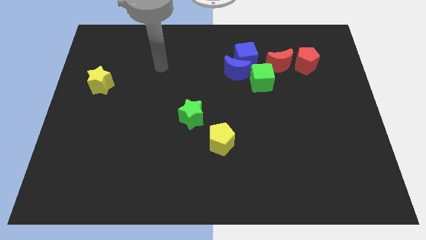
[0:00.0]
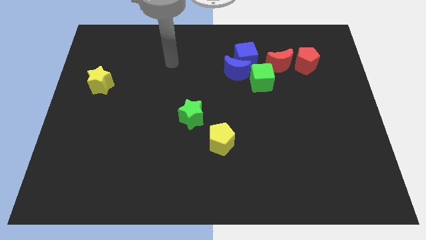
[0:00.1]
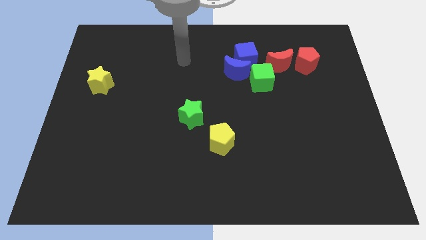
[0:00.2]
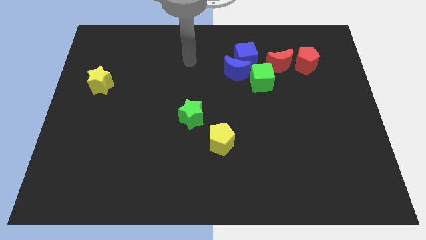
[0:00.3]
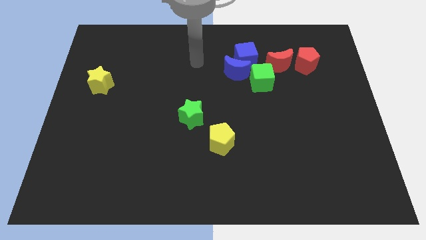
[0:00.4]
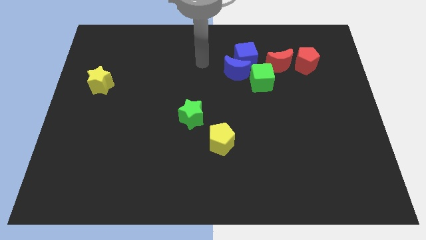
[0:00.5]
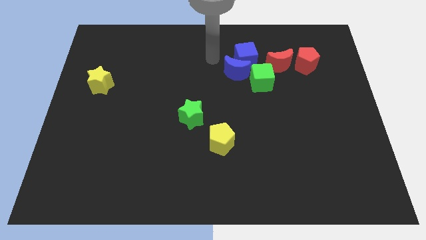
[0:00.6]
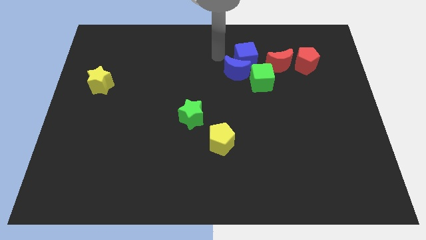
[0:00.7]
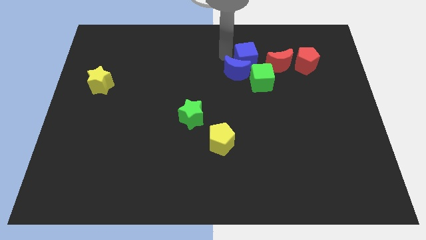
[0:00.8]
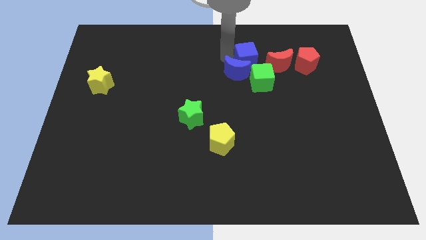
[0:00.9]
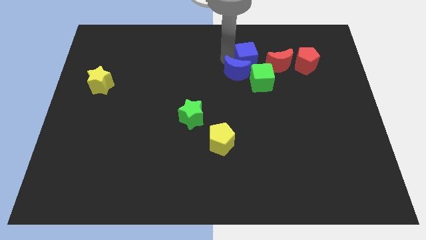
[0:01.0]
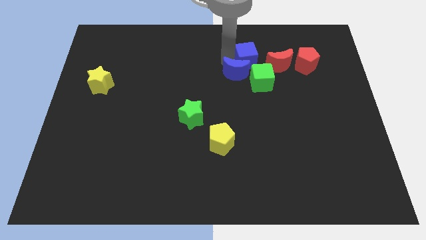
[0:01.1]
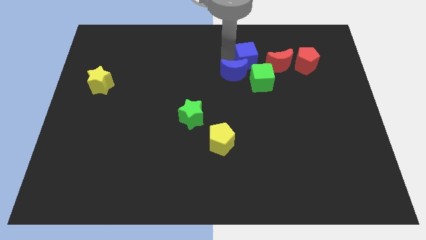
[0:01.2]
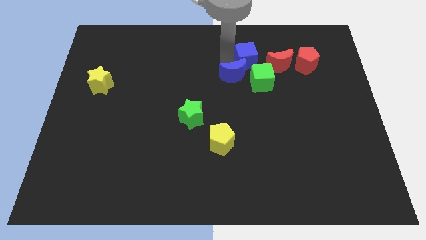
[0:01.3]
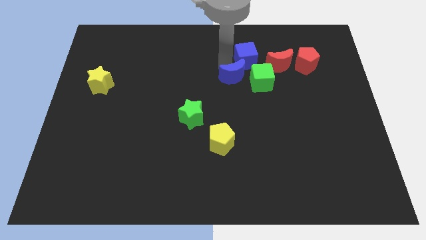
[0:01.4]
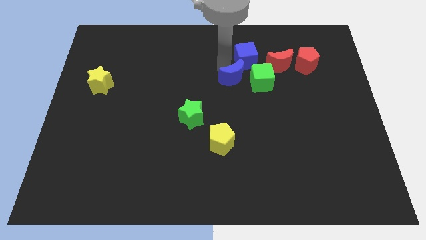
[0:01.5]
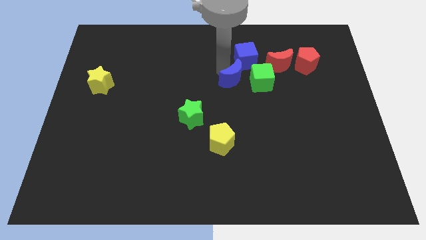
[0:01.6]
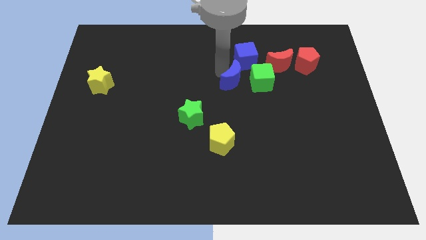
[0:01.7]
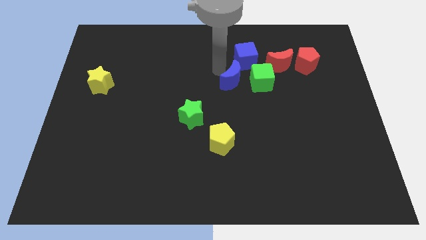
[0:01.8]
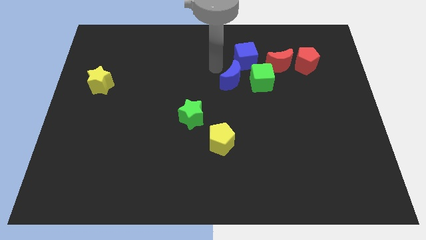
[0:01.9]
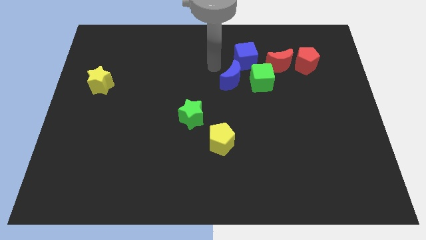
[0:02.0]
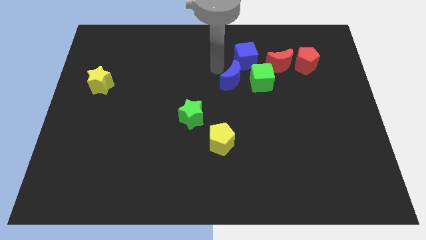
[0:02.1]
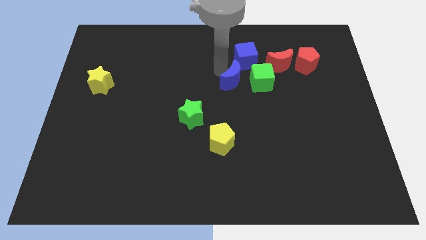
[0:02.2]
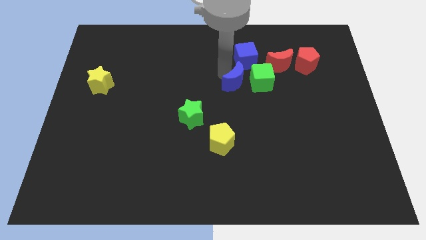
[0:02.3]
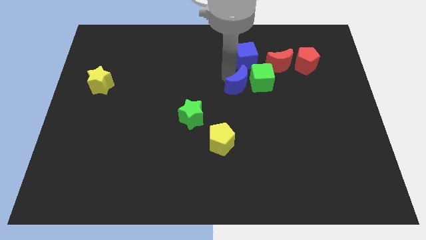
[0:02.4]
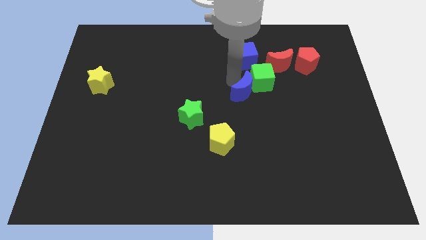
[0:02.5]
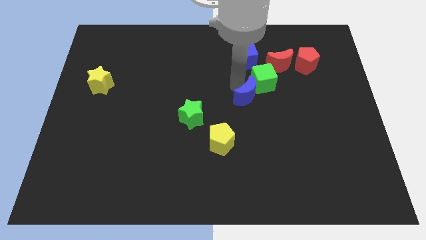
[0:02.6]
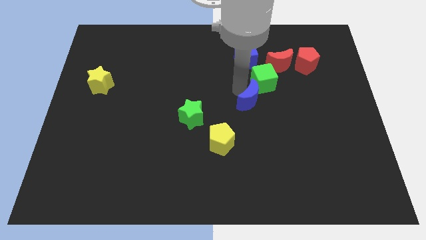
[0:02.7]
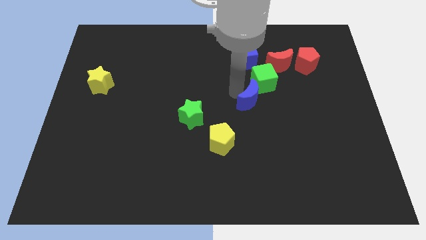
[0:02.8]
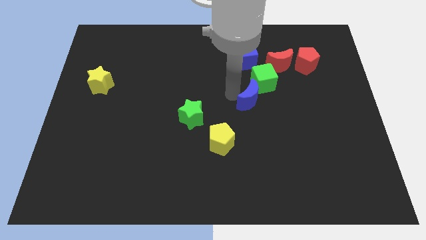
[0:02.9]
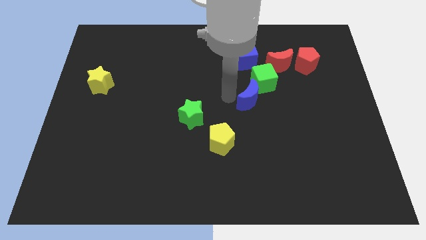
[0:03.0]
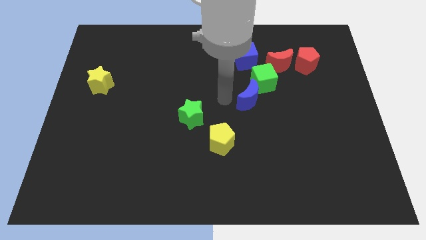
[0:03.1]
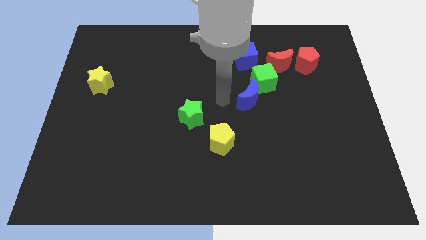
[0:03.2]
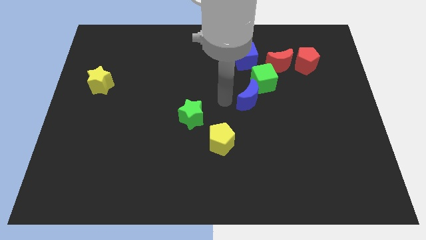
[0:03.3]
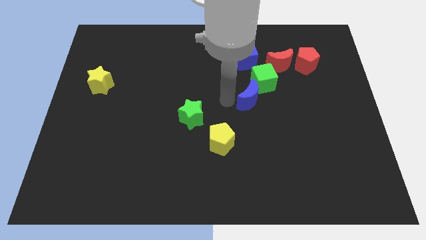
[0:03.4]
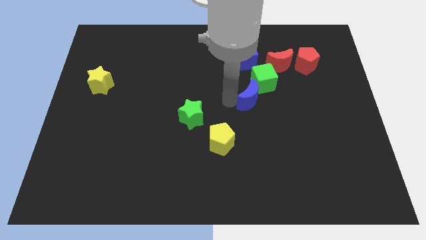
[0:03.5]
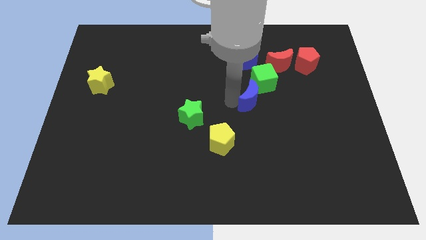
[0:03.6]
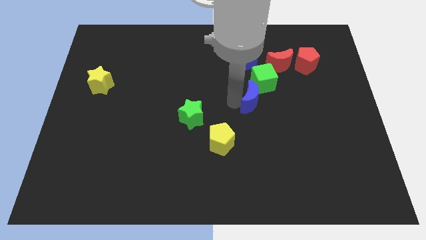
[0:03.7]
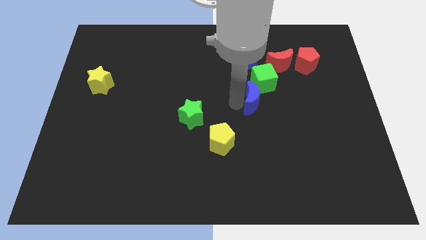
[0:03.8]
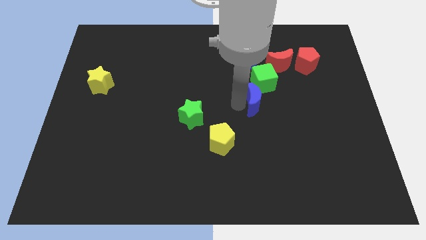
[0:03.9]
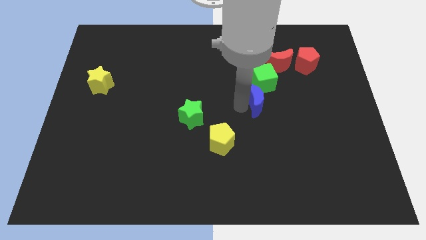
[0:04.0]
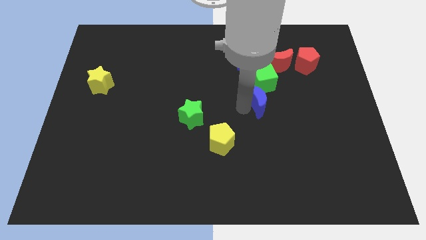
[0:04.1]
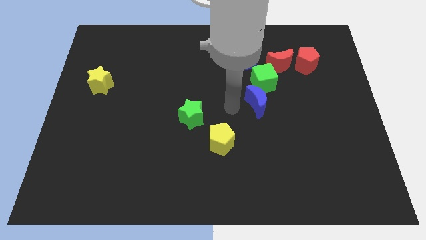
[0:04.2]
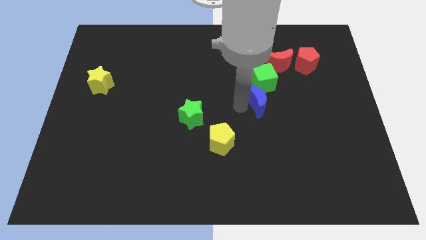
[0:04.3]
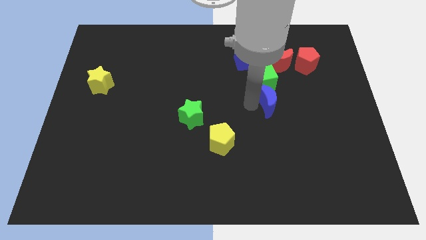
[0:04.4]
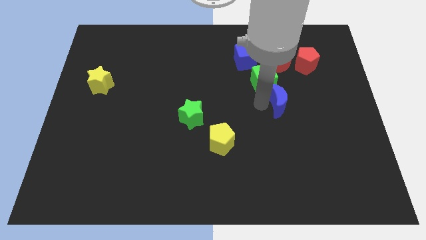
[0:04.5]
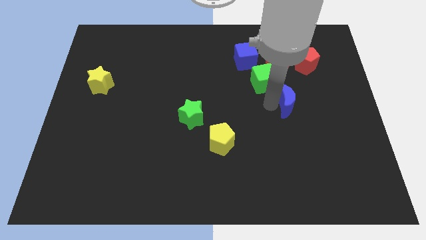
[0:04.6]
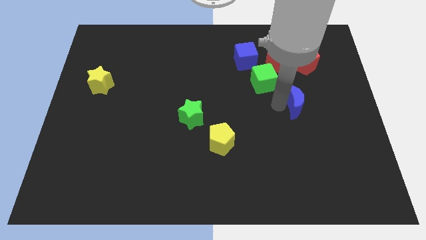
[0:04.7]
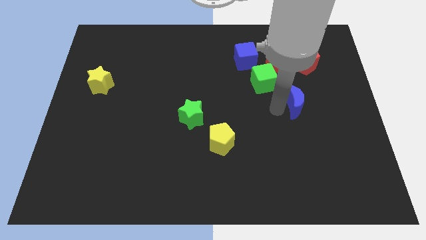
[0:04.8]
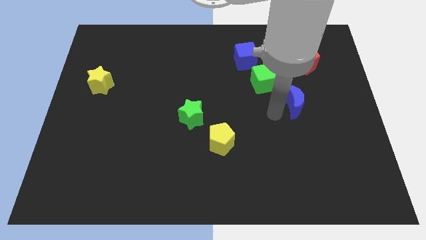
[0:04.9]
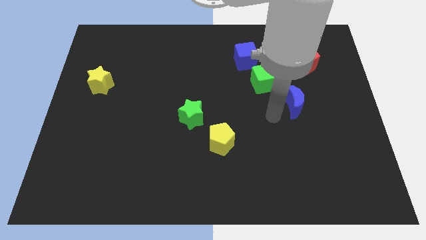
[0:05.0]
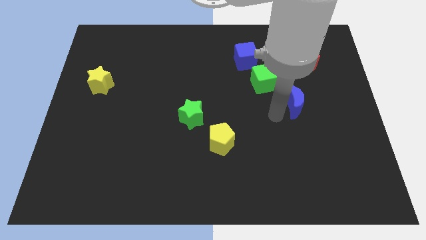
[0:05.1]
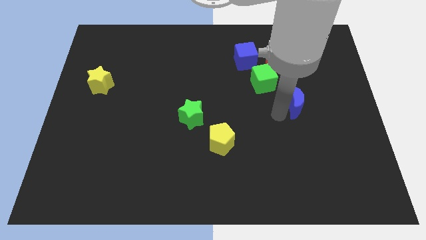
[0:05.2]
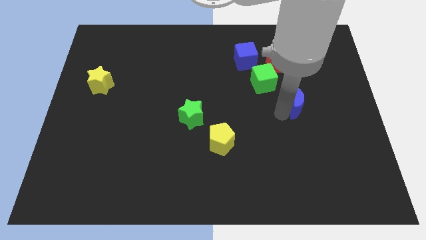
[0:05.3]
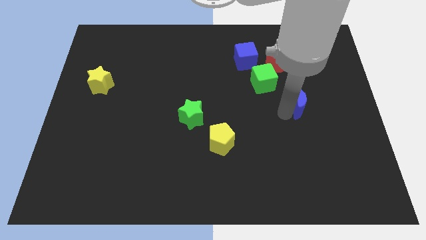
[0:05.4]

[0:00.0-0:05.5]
slide the blue moon to the bottom of the red pentagon

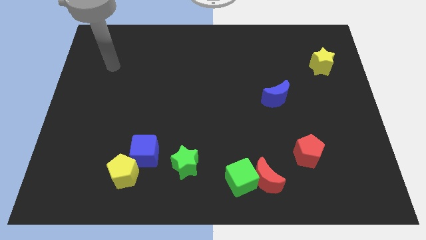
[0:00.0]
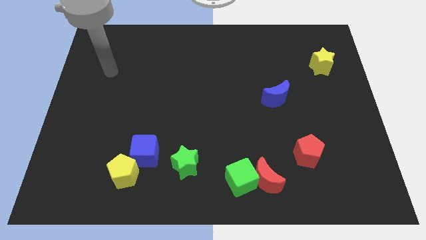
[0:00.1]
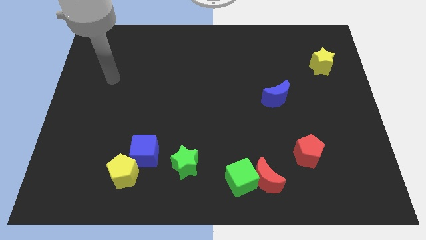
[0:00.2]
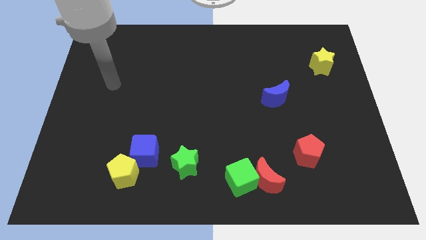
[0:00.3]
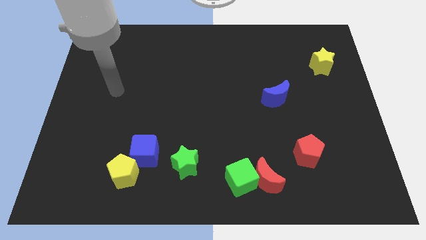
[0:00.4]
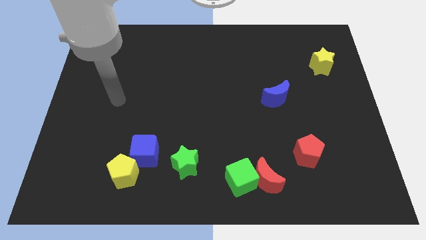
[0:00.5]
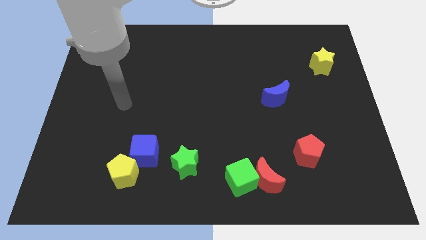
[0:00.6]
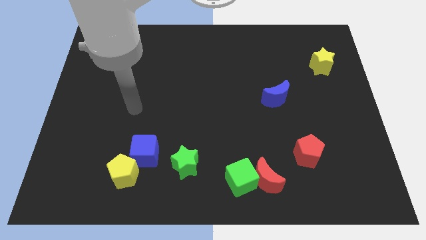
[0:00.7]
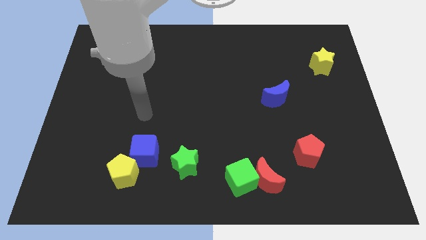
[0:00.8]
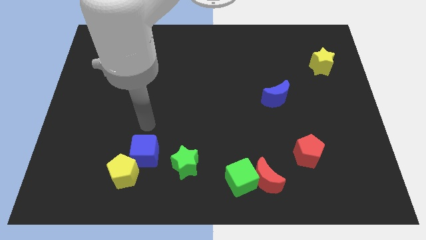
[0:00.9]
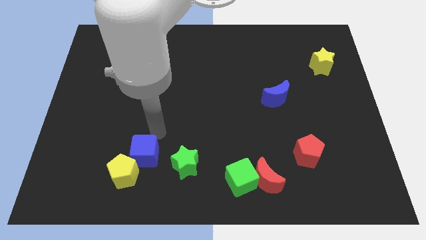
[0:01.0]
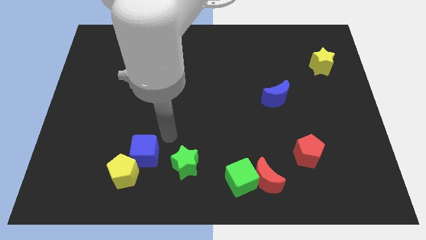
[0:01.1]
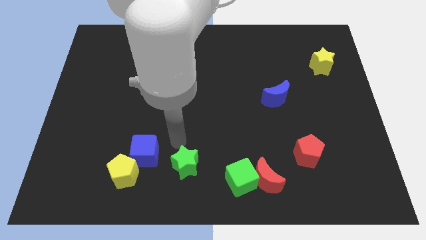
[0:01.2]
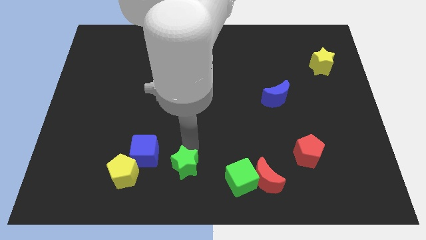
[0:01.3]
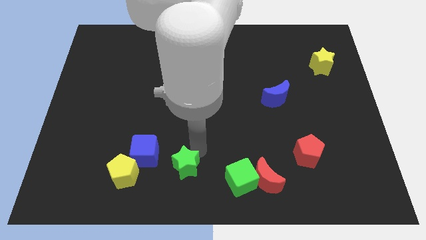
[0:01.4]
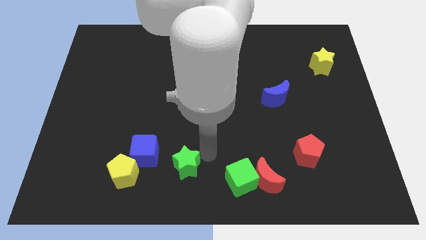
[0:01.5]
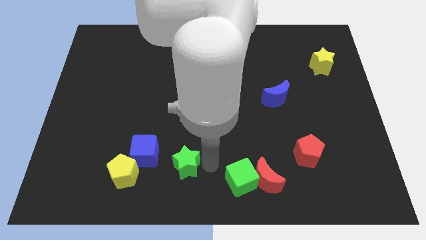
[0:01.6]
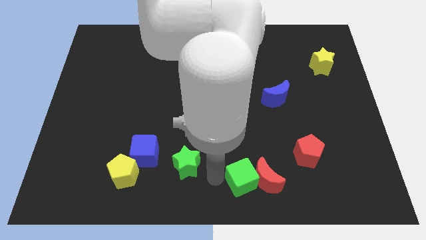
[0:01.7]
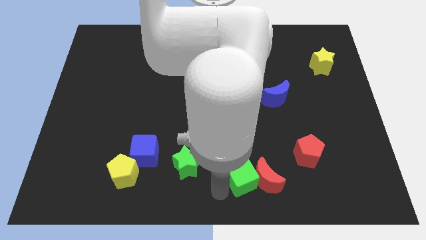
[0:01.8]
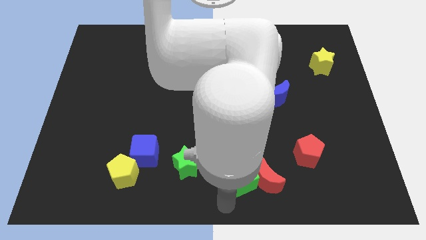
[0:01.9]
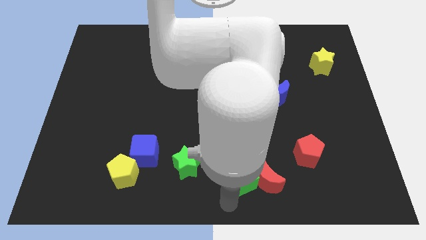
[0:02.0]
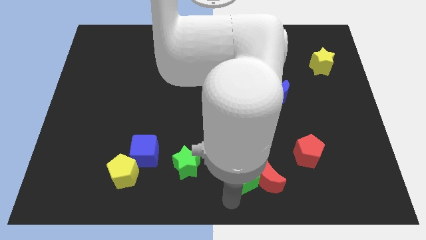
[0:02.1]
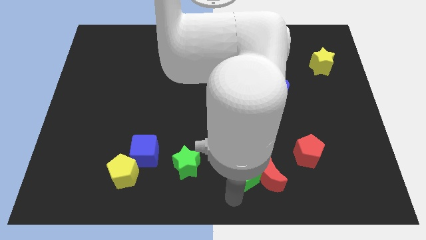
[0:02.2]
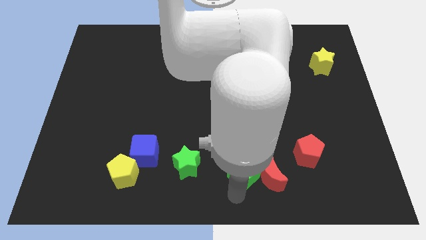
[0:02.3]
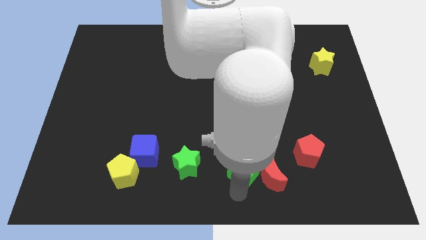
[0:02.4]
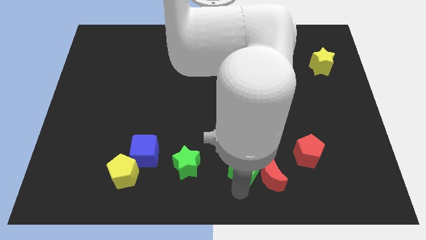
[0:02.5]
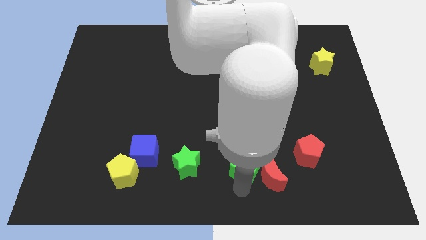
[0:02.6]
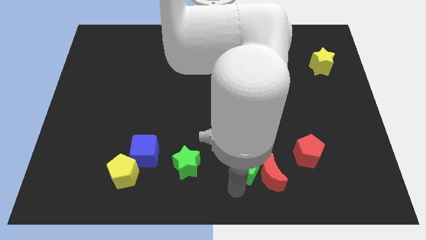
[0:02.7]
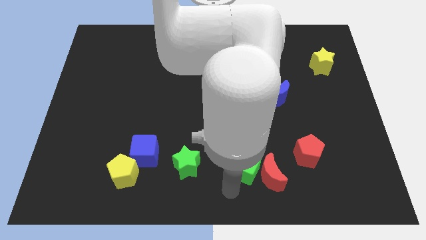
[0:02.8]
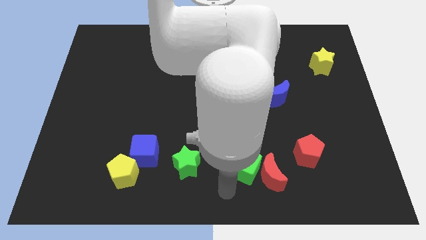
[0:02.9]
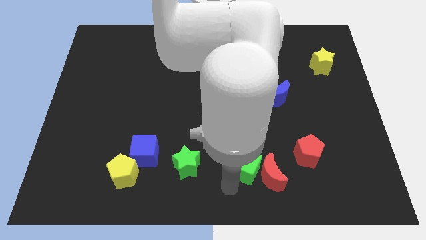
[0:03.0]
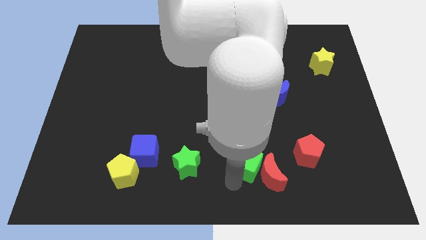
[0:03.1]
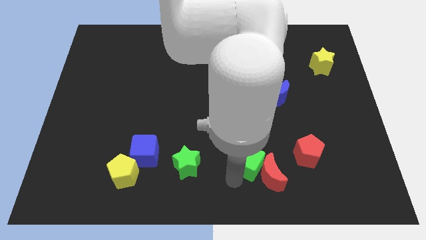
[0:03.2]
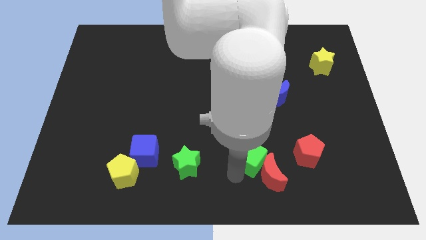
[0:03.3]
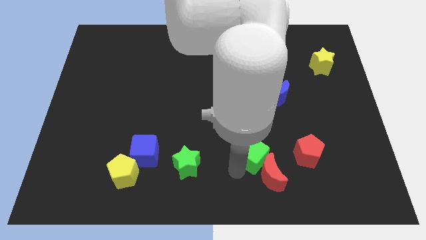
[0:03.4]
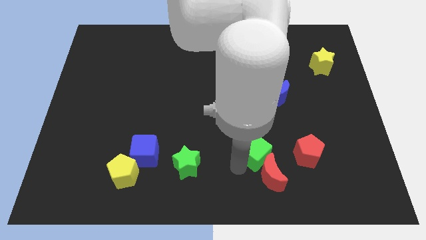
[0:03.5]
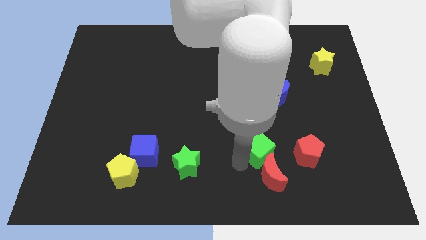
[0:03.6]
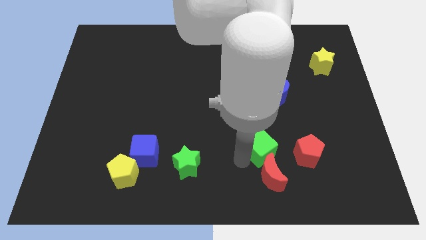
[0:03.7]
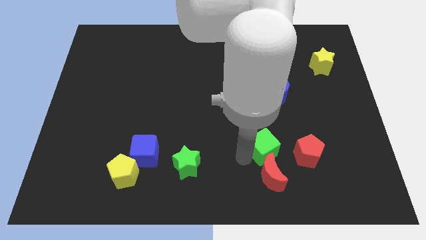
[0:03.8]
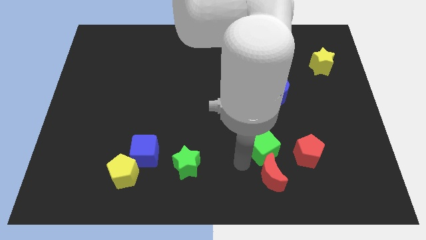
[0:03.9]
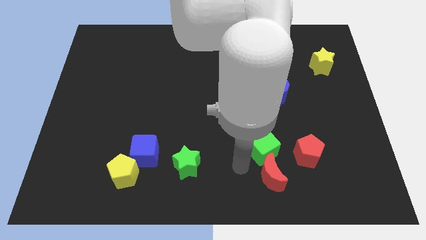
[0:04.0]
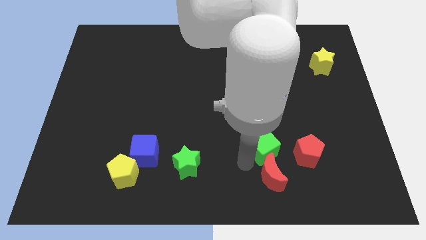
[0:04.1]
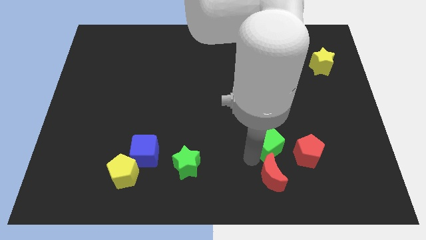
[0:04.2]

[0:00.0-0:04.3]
move the green cube below the blue moon
